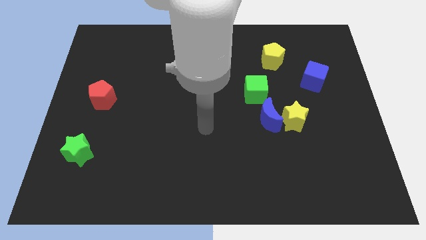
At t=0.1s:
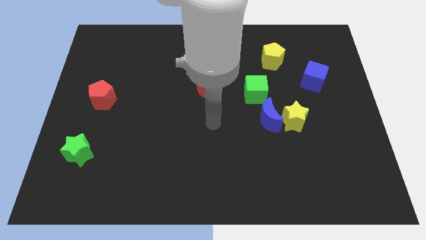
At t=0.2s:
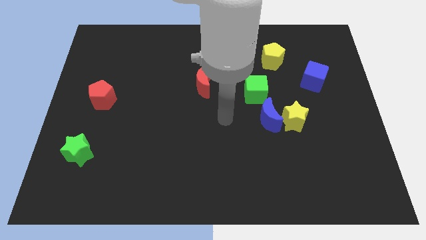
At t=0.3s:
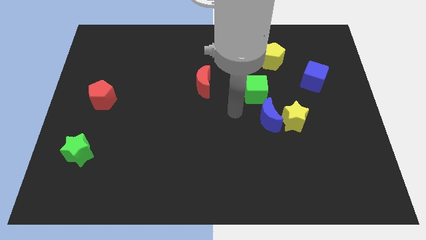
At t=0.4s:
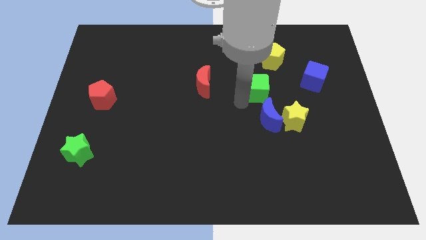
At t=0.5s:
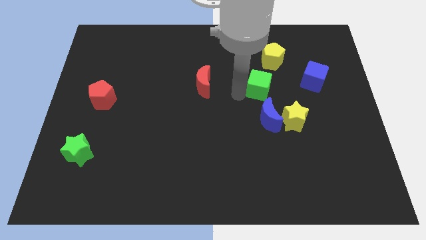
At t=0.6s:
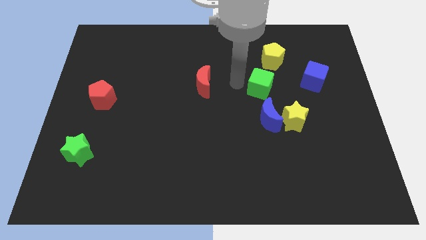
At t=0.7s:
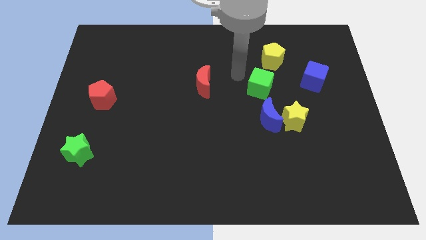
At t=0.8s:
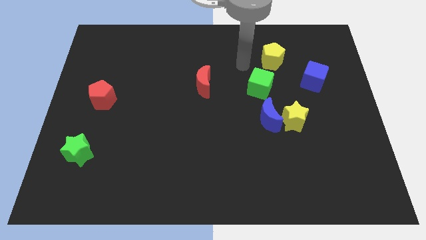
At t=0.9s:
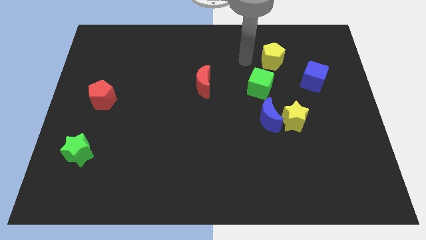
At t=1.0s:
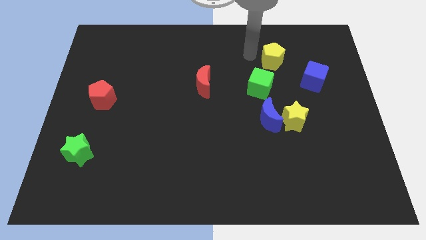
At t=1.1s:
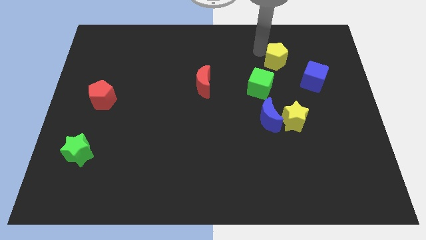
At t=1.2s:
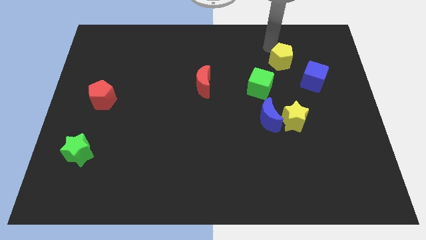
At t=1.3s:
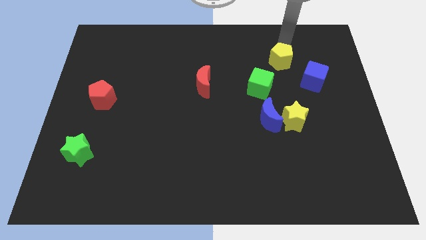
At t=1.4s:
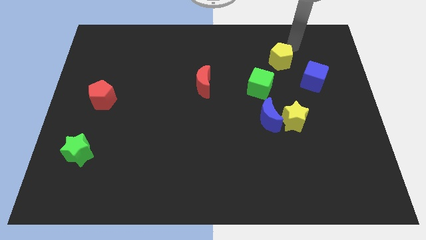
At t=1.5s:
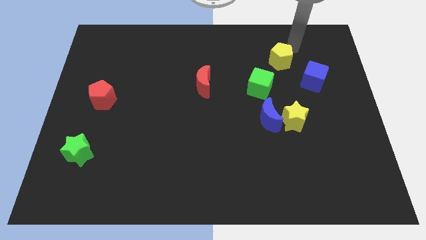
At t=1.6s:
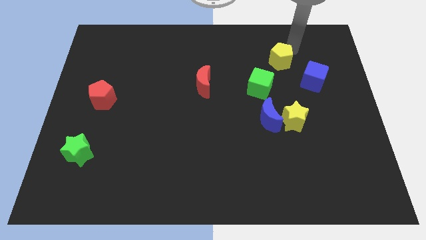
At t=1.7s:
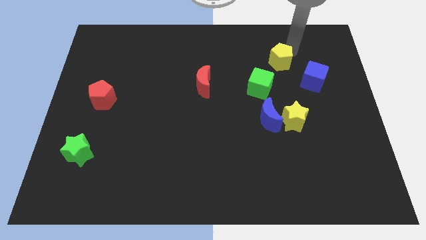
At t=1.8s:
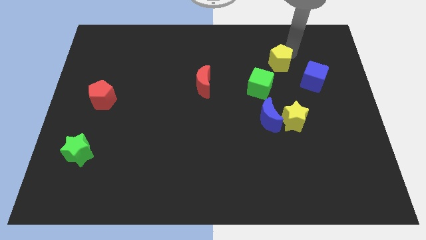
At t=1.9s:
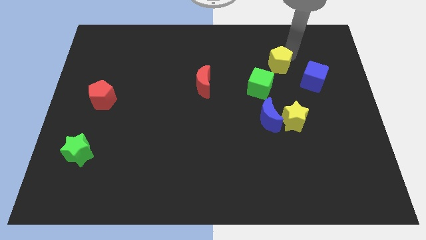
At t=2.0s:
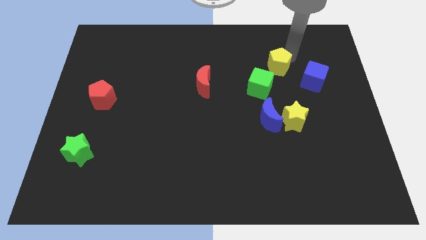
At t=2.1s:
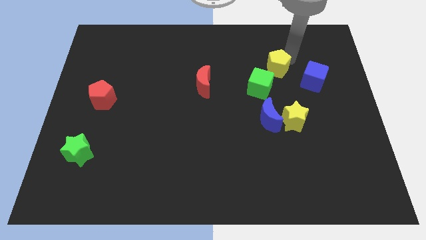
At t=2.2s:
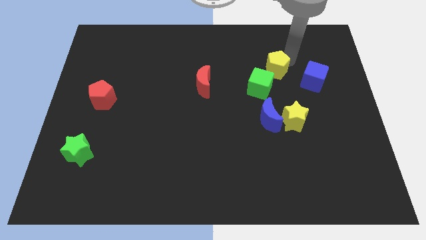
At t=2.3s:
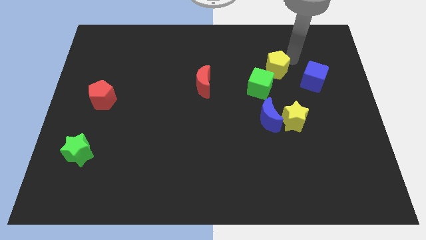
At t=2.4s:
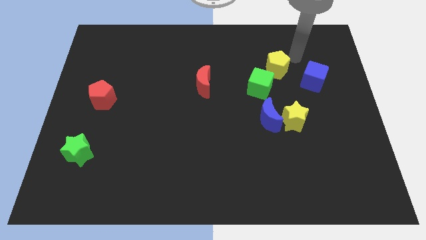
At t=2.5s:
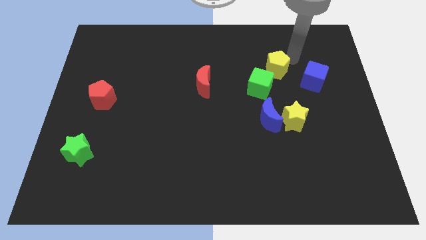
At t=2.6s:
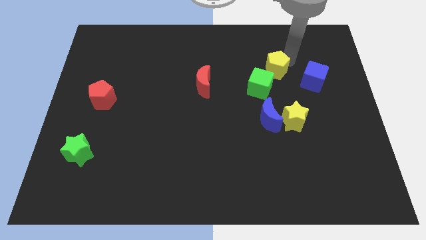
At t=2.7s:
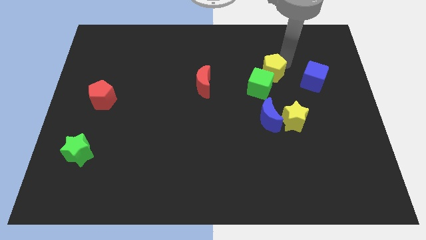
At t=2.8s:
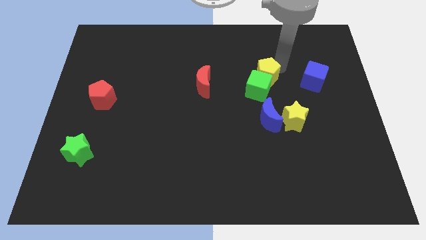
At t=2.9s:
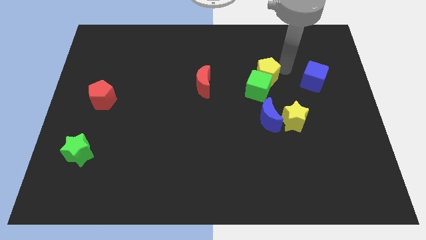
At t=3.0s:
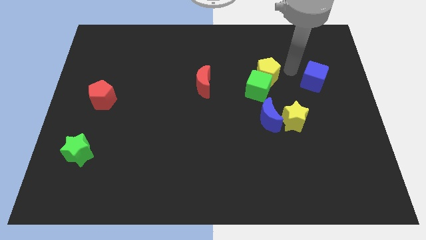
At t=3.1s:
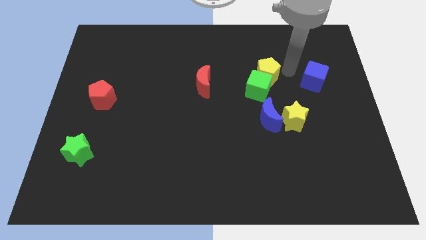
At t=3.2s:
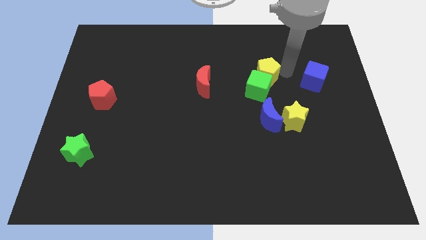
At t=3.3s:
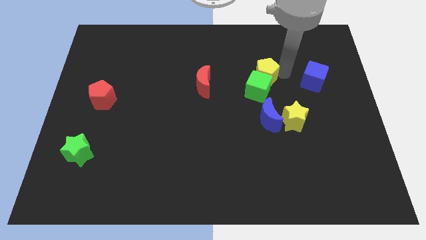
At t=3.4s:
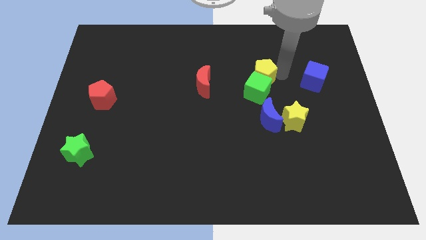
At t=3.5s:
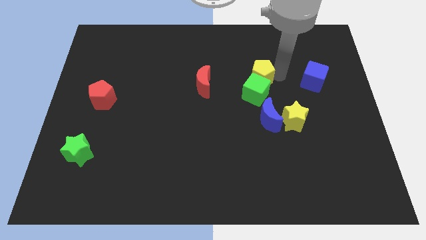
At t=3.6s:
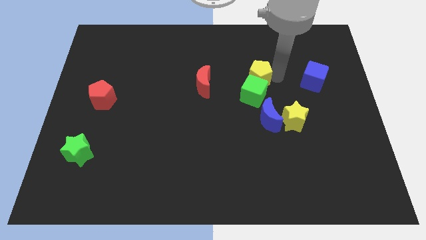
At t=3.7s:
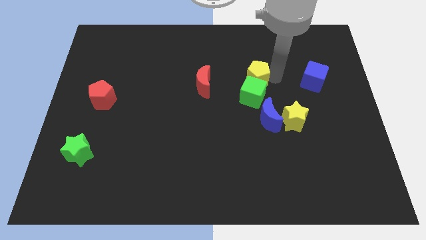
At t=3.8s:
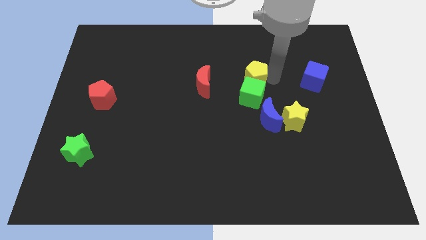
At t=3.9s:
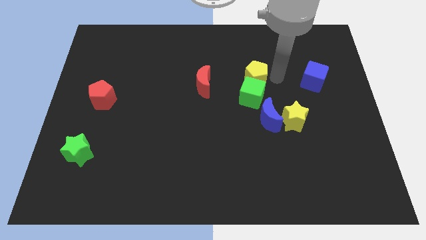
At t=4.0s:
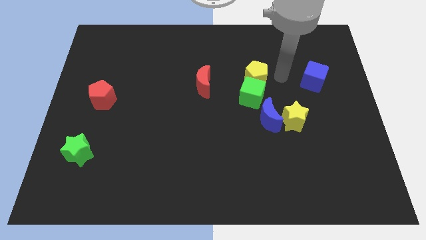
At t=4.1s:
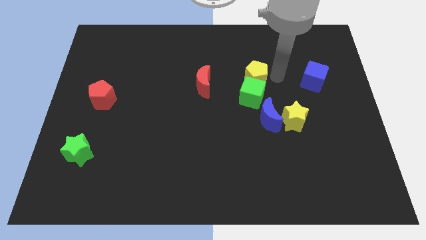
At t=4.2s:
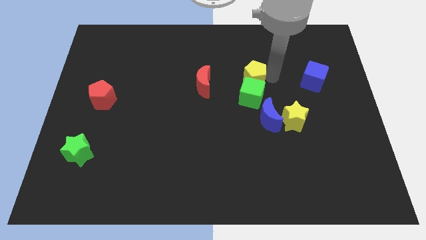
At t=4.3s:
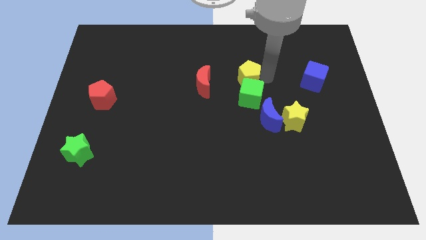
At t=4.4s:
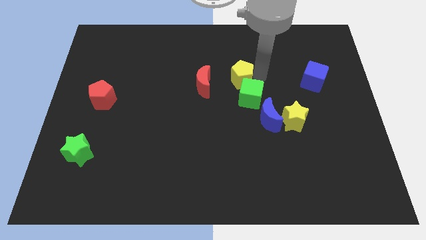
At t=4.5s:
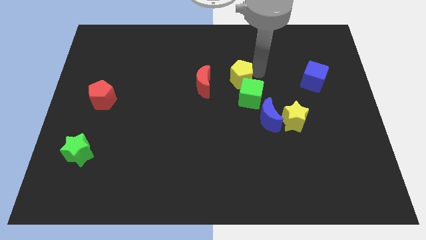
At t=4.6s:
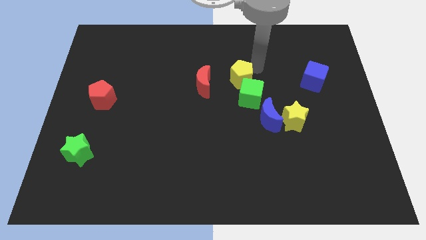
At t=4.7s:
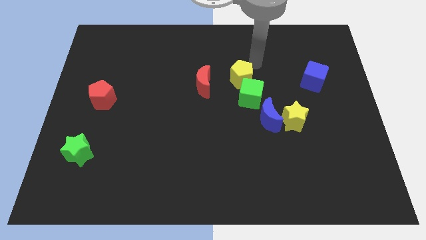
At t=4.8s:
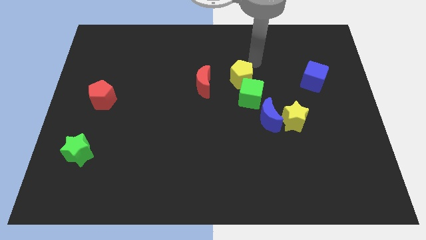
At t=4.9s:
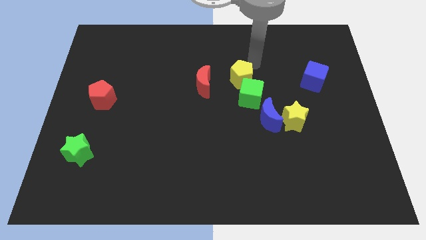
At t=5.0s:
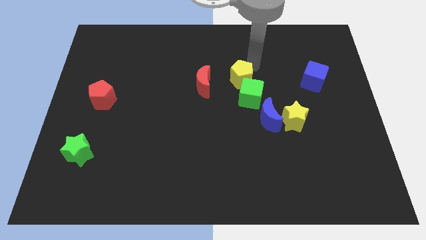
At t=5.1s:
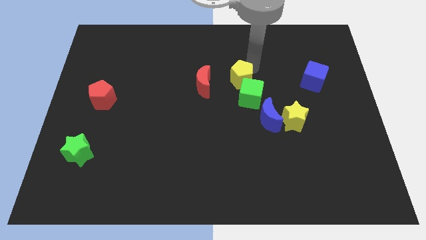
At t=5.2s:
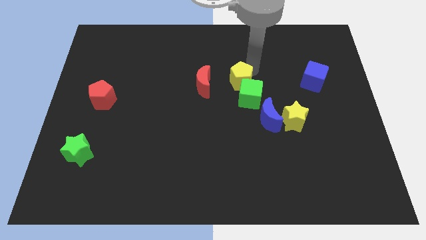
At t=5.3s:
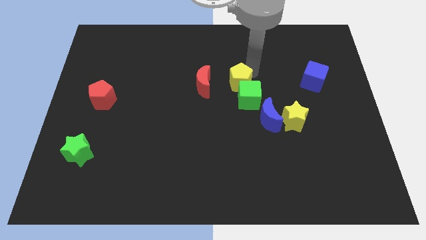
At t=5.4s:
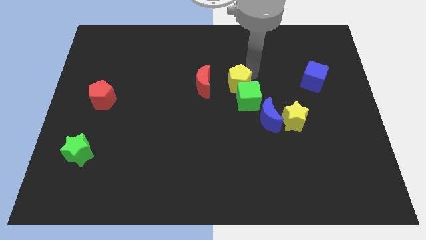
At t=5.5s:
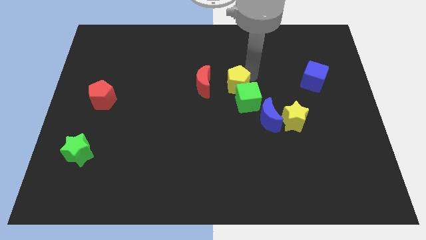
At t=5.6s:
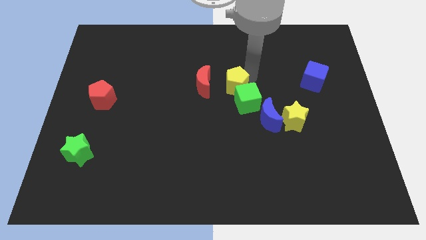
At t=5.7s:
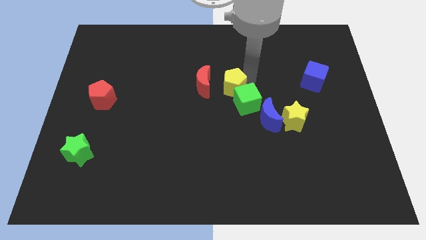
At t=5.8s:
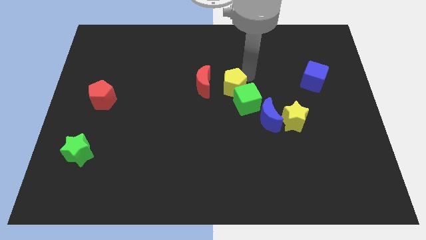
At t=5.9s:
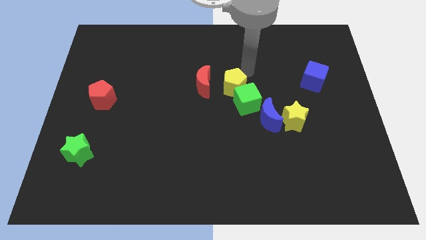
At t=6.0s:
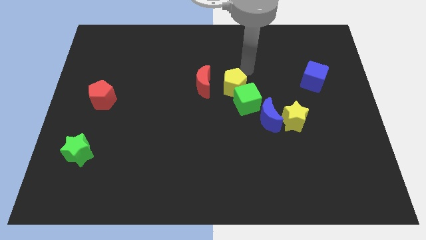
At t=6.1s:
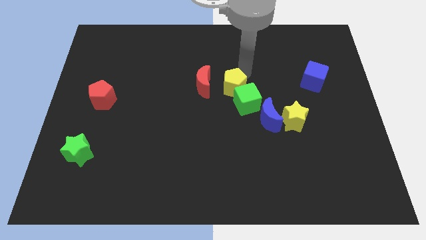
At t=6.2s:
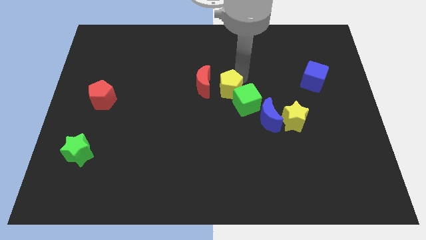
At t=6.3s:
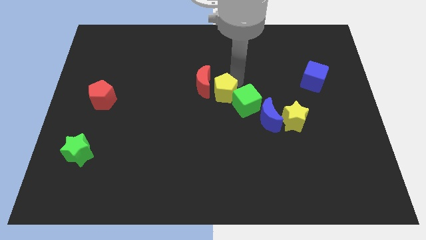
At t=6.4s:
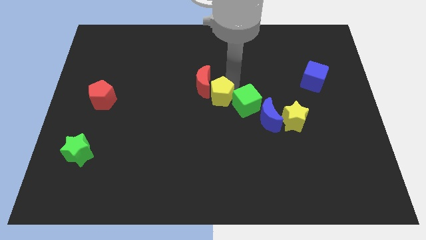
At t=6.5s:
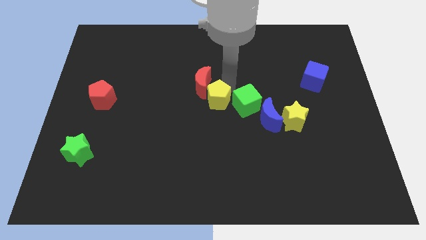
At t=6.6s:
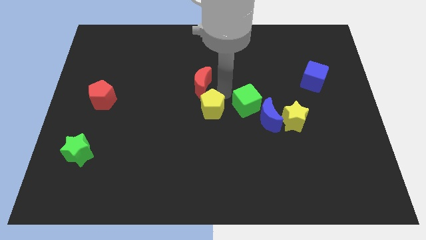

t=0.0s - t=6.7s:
push the yellow pentagon down and then to the left

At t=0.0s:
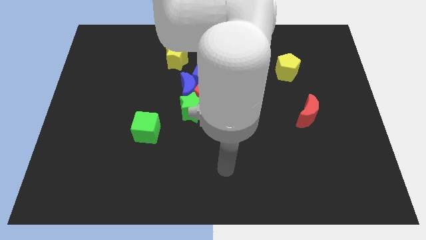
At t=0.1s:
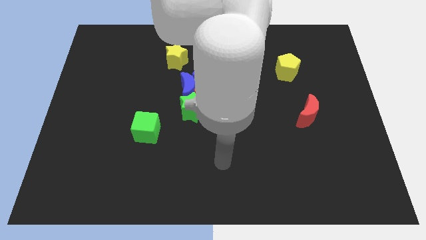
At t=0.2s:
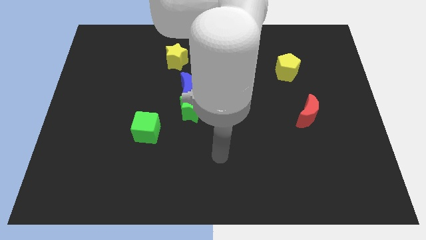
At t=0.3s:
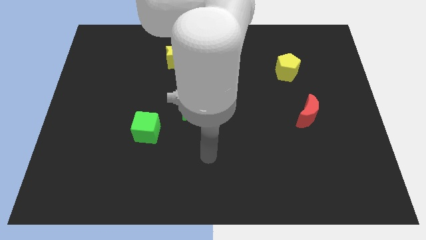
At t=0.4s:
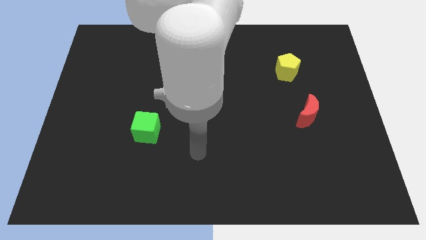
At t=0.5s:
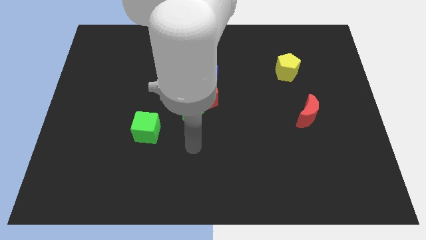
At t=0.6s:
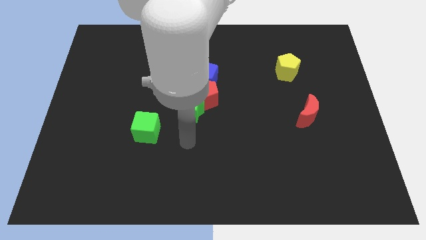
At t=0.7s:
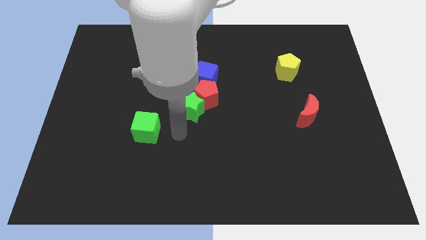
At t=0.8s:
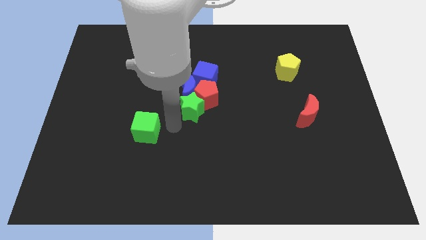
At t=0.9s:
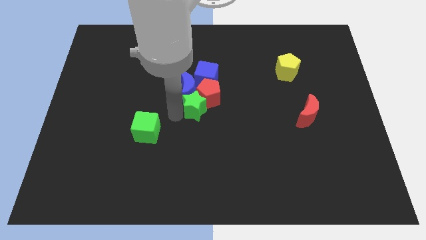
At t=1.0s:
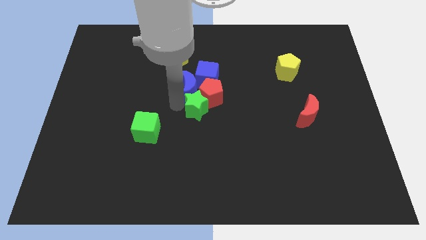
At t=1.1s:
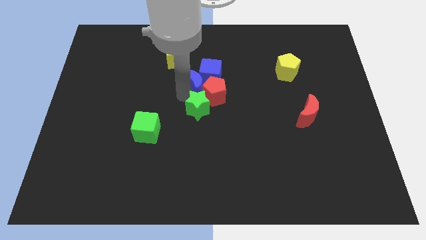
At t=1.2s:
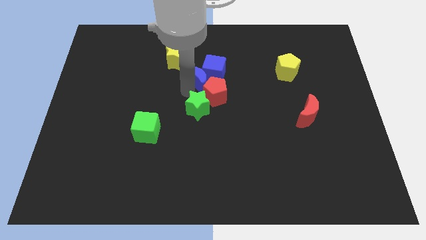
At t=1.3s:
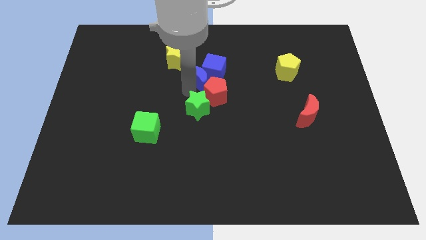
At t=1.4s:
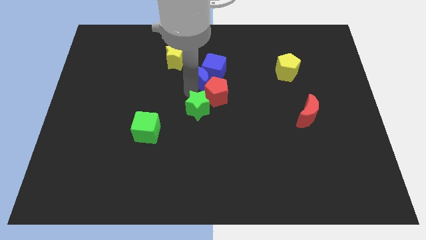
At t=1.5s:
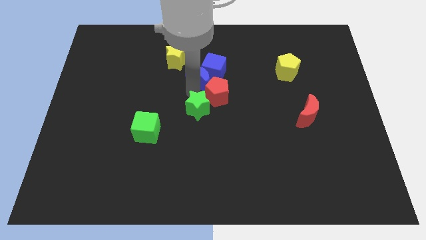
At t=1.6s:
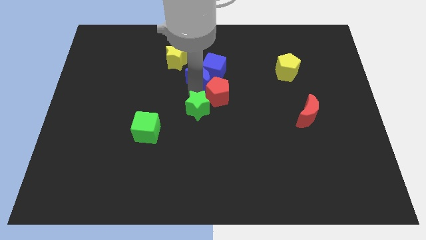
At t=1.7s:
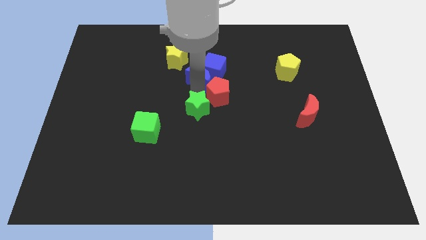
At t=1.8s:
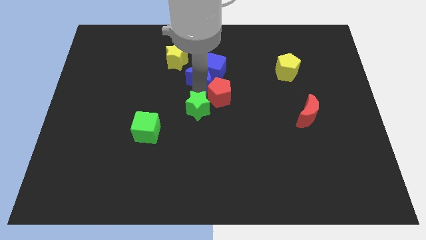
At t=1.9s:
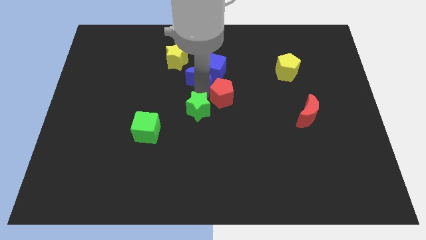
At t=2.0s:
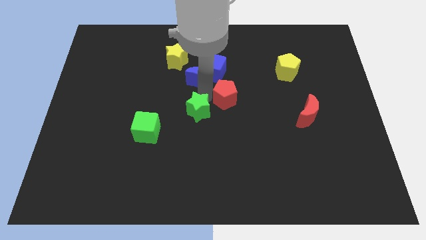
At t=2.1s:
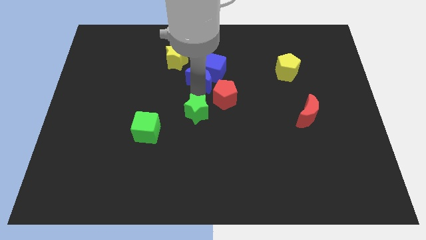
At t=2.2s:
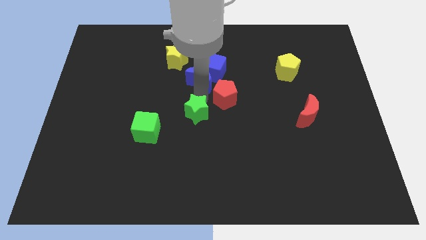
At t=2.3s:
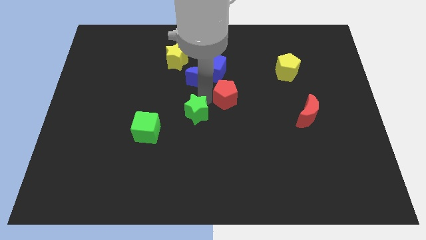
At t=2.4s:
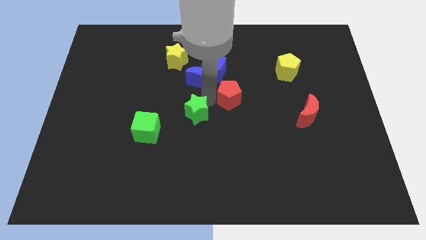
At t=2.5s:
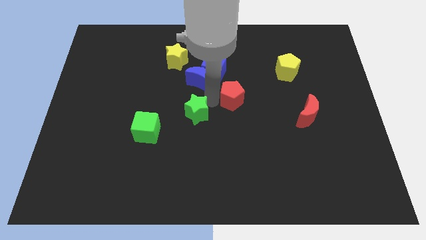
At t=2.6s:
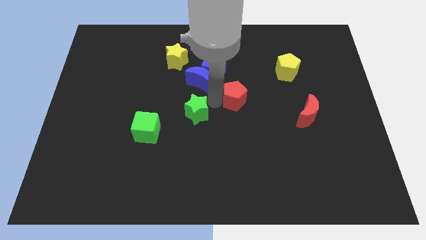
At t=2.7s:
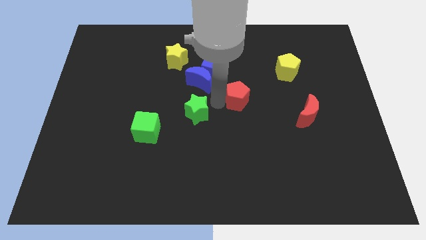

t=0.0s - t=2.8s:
slide the red pentagon slightly to the right
